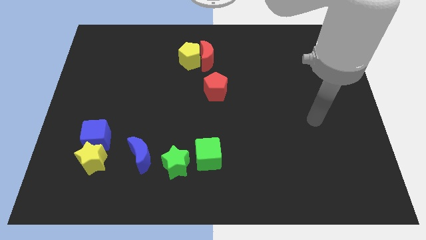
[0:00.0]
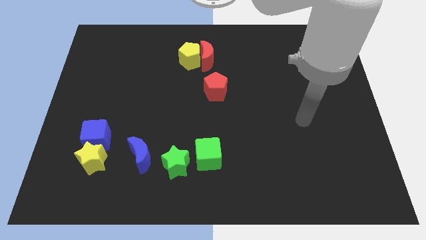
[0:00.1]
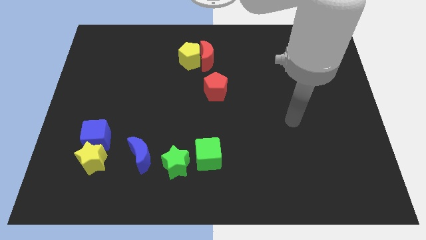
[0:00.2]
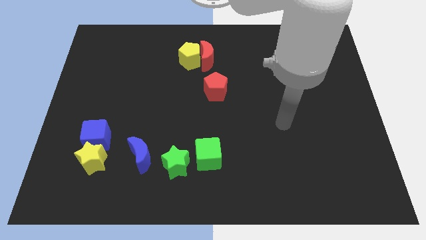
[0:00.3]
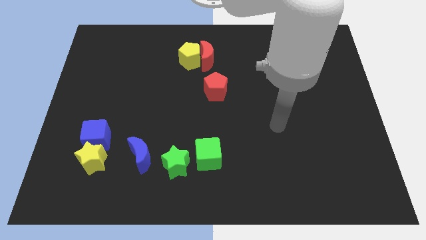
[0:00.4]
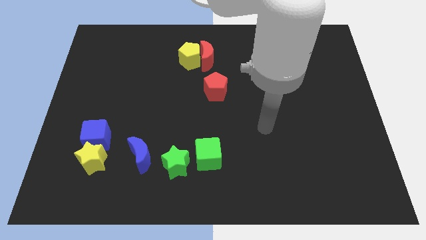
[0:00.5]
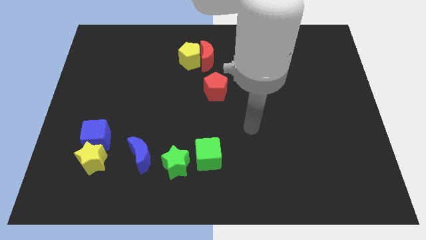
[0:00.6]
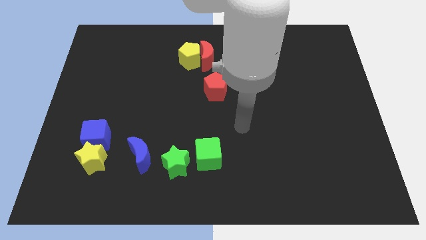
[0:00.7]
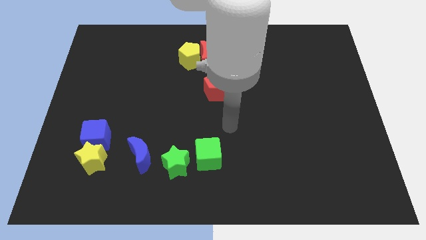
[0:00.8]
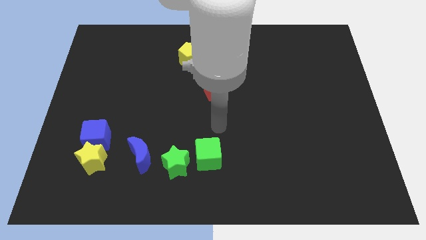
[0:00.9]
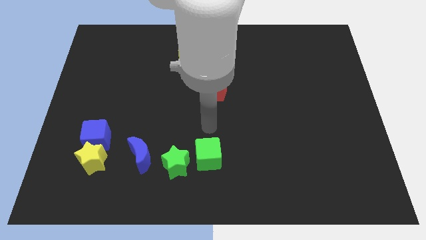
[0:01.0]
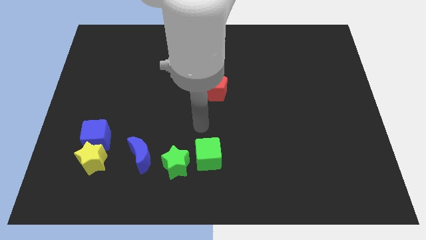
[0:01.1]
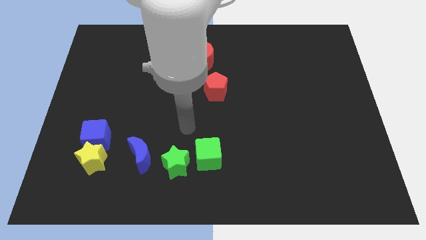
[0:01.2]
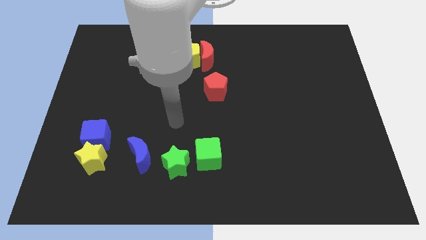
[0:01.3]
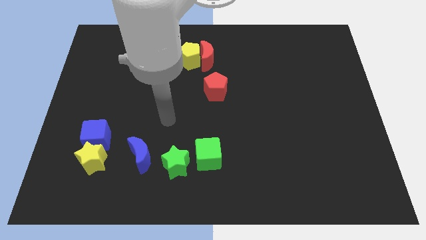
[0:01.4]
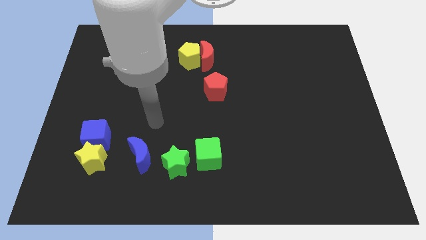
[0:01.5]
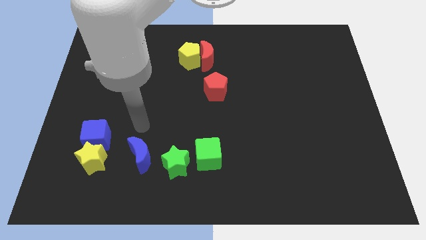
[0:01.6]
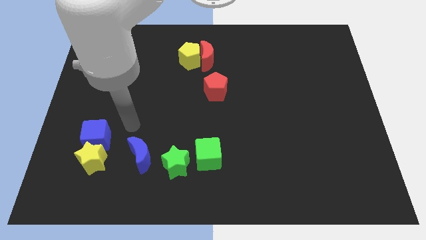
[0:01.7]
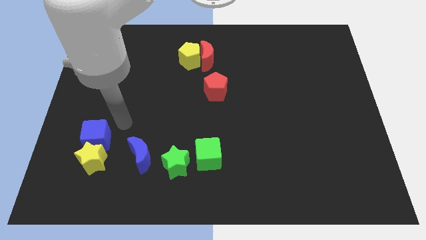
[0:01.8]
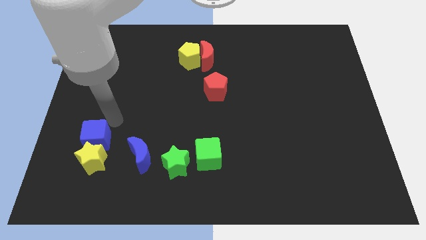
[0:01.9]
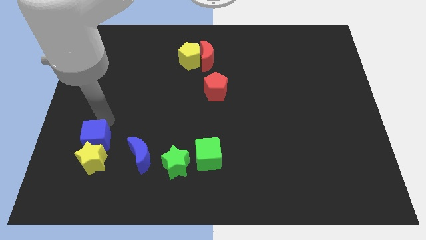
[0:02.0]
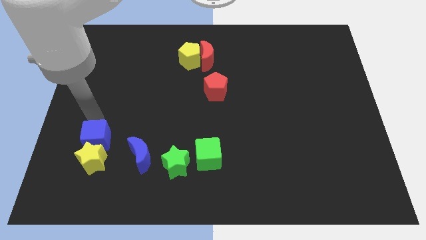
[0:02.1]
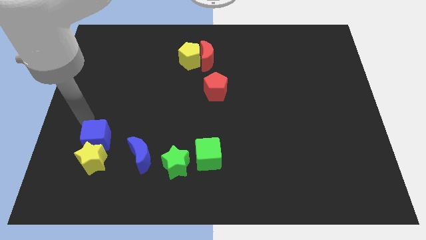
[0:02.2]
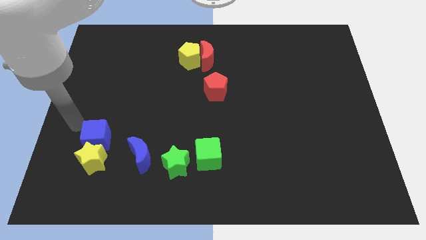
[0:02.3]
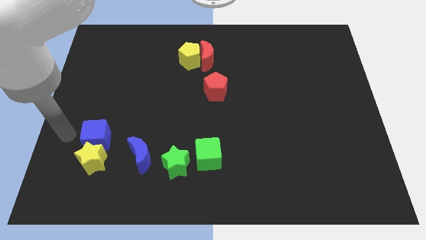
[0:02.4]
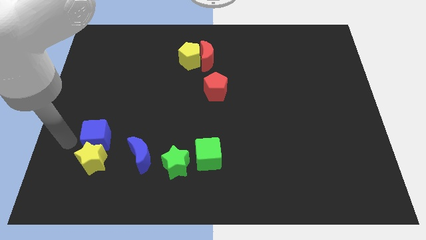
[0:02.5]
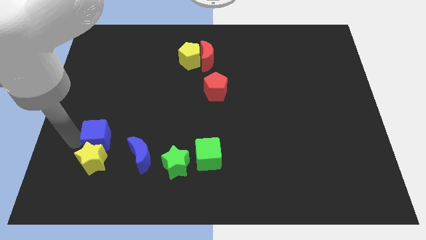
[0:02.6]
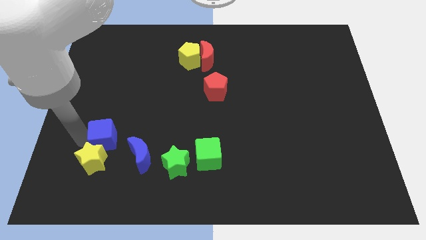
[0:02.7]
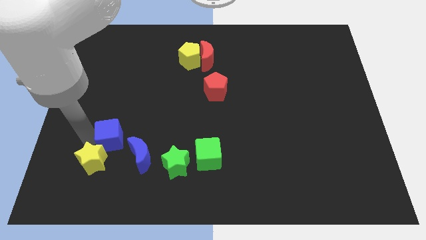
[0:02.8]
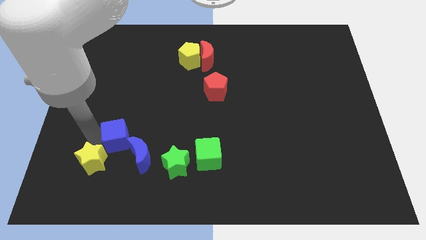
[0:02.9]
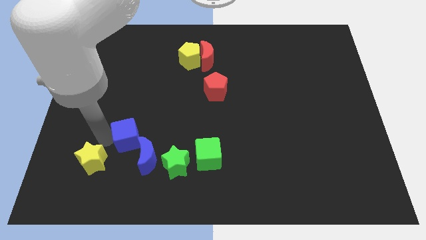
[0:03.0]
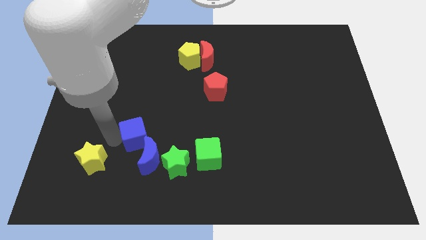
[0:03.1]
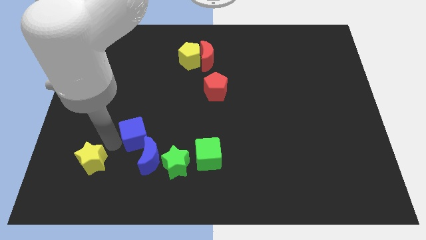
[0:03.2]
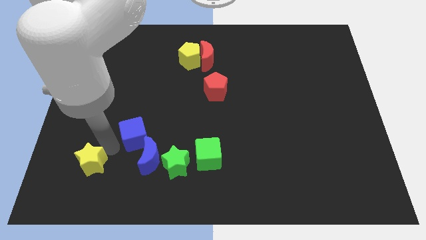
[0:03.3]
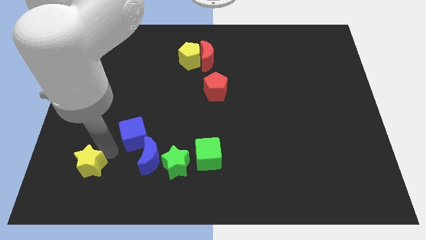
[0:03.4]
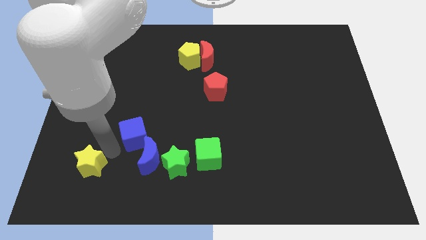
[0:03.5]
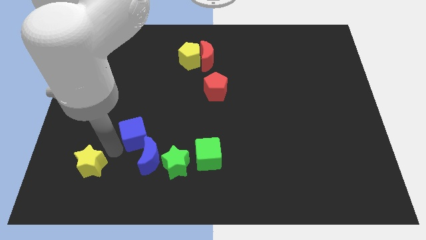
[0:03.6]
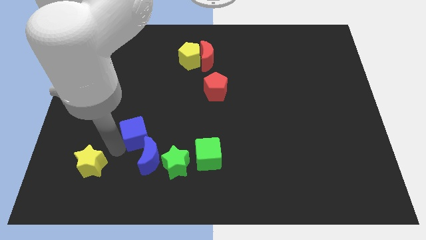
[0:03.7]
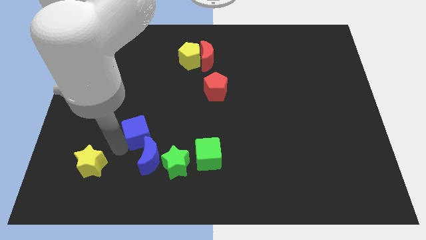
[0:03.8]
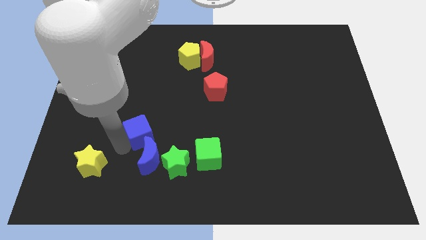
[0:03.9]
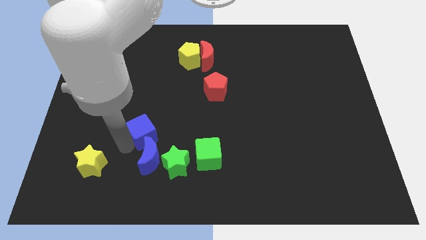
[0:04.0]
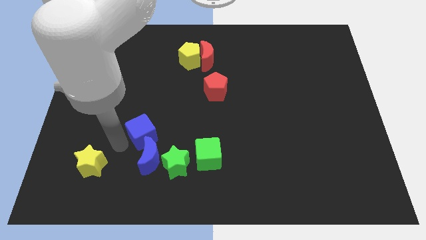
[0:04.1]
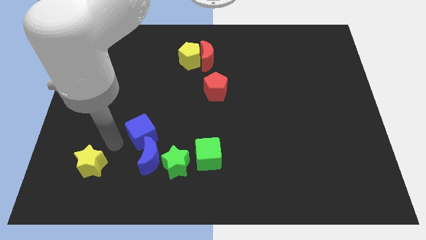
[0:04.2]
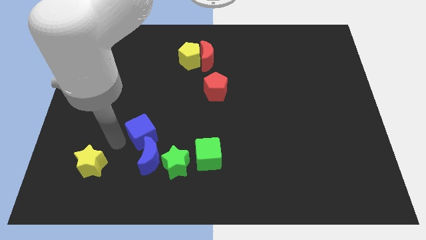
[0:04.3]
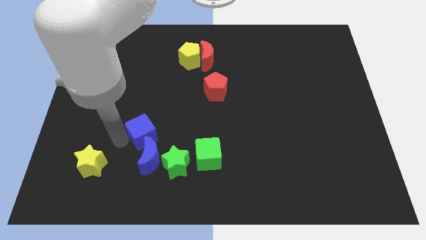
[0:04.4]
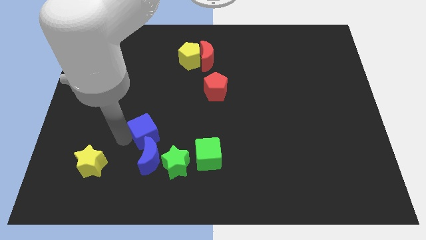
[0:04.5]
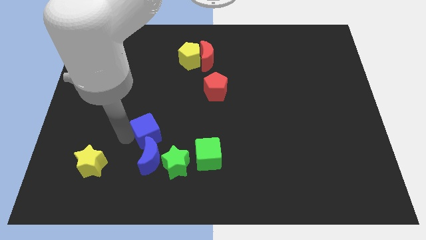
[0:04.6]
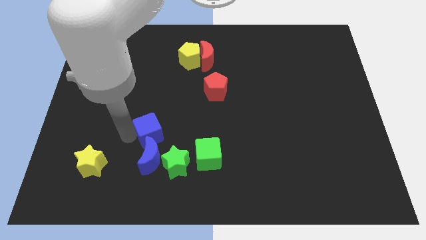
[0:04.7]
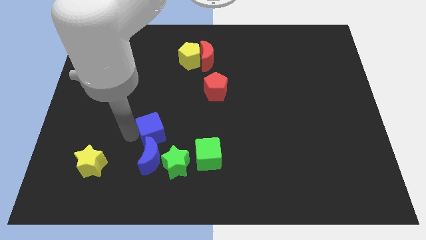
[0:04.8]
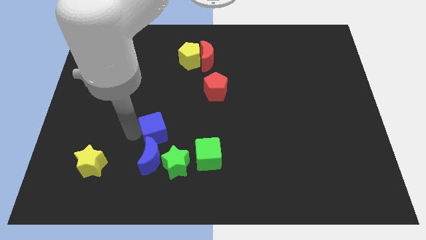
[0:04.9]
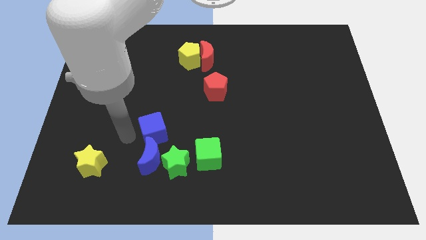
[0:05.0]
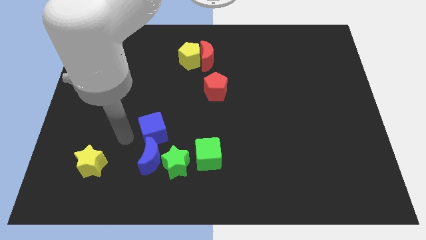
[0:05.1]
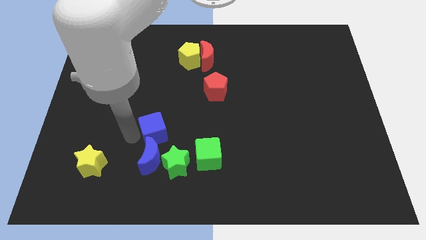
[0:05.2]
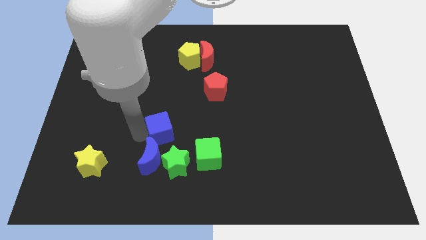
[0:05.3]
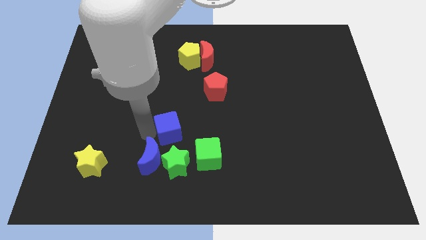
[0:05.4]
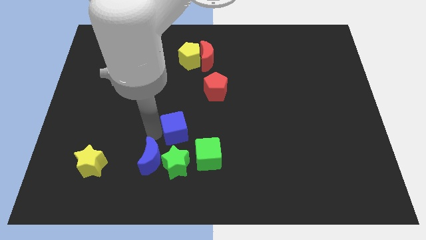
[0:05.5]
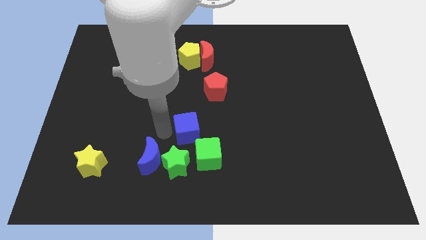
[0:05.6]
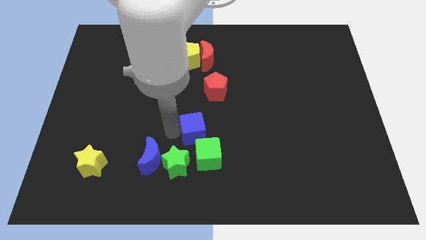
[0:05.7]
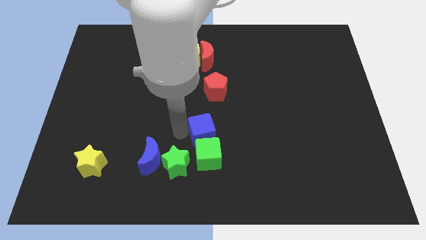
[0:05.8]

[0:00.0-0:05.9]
push the blue cube below the red pentagon

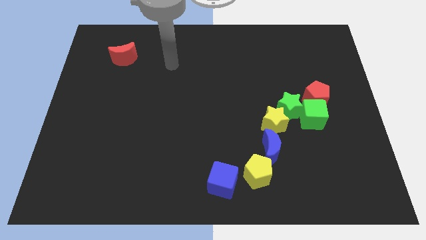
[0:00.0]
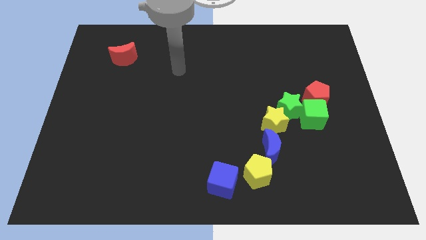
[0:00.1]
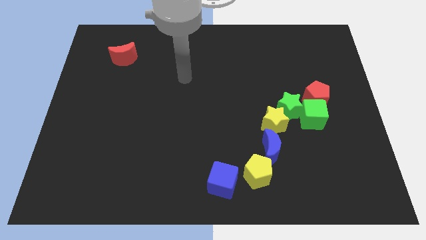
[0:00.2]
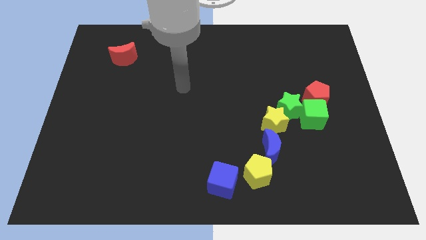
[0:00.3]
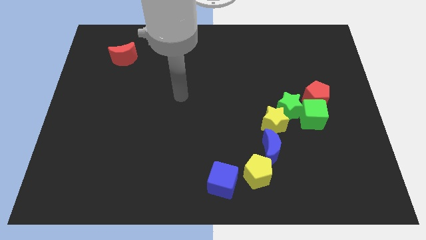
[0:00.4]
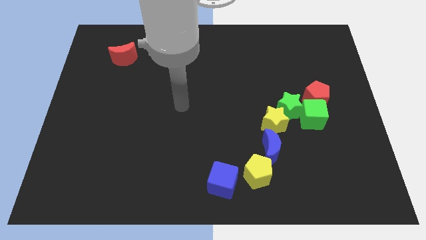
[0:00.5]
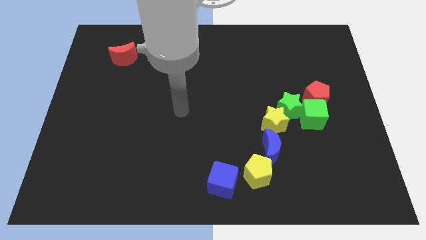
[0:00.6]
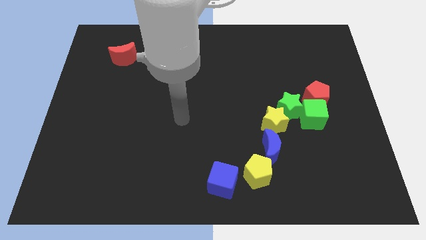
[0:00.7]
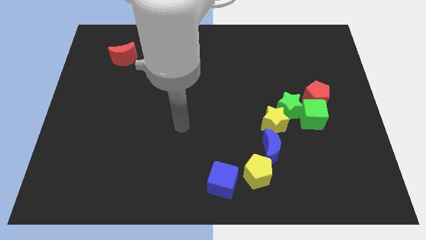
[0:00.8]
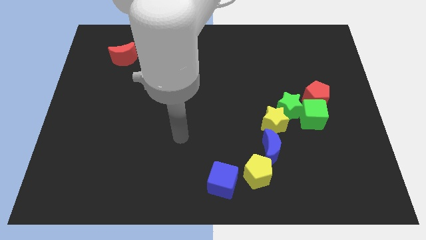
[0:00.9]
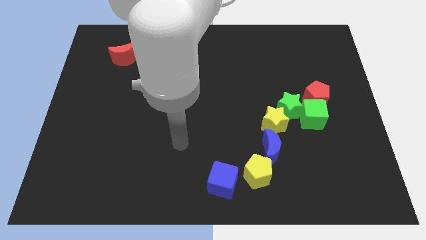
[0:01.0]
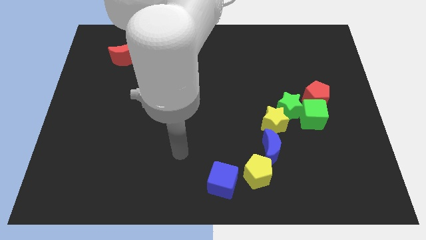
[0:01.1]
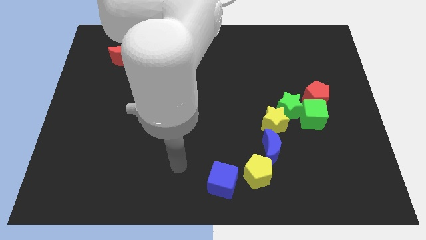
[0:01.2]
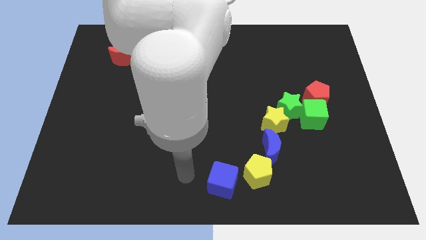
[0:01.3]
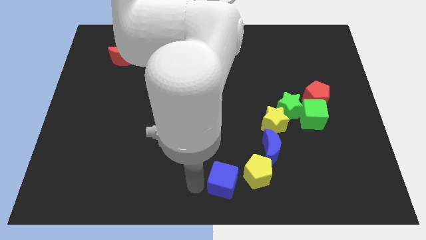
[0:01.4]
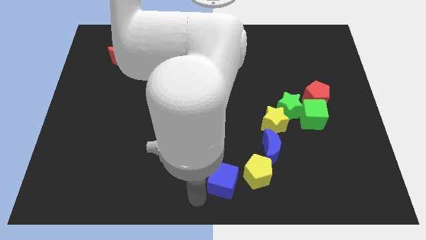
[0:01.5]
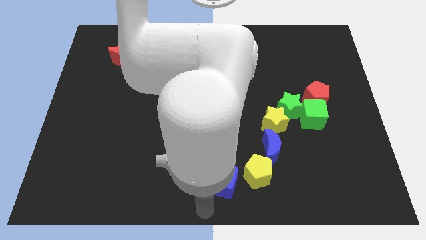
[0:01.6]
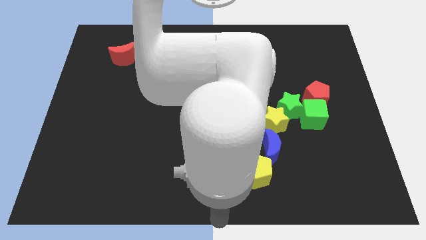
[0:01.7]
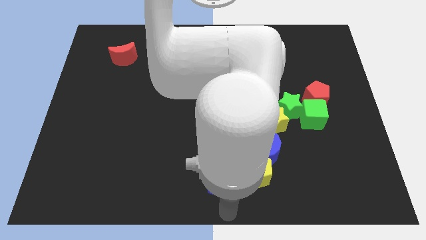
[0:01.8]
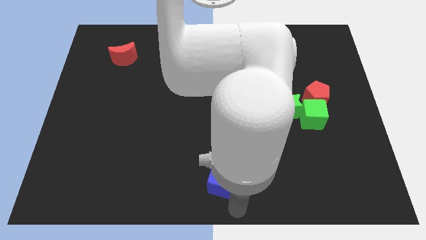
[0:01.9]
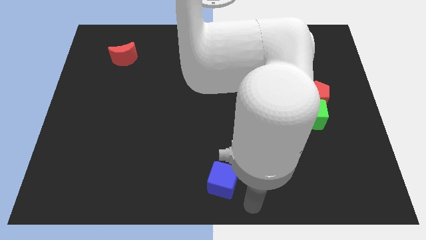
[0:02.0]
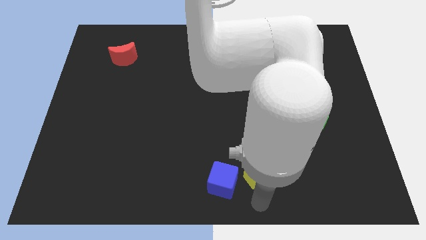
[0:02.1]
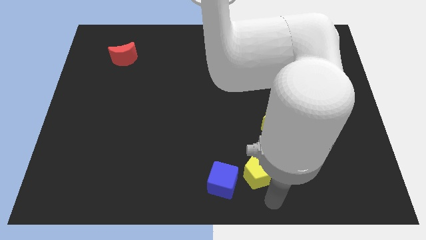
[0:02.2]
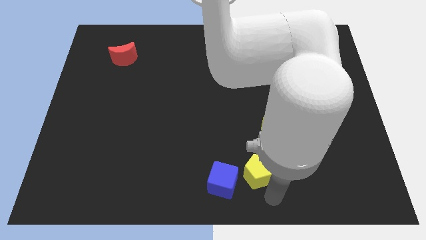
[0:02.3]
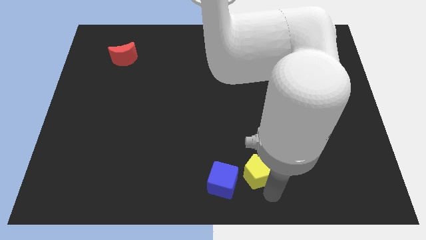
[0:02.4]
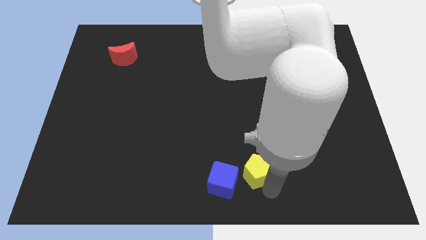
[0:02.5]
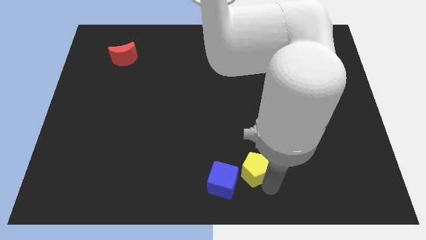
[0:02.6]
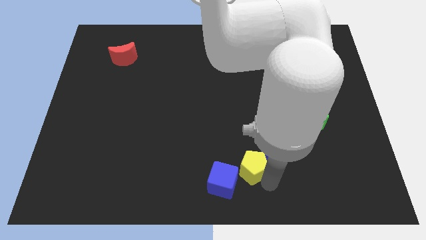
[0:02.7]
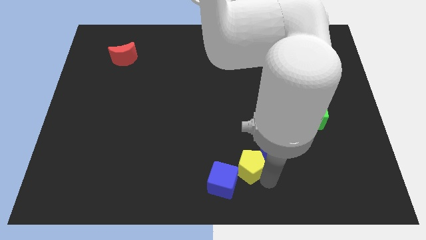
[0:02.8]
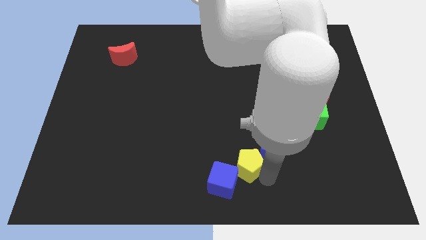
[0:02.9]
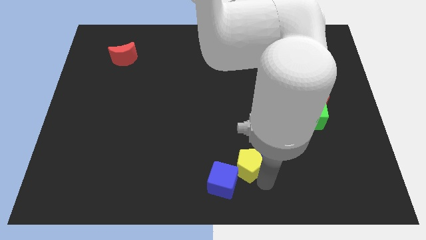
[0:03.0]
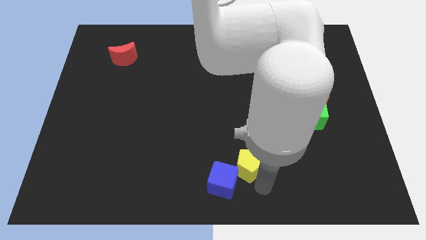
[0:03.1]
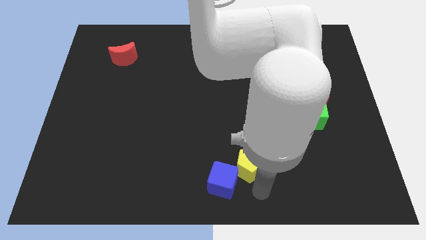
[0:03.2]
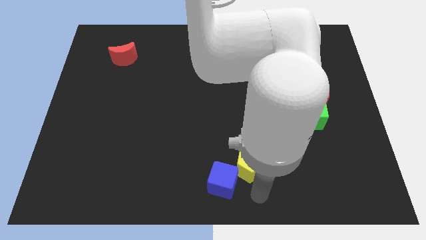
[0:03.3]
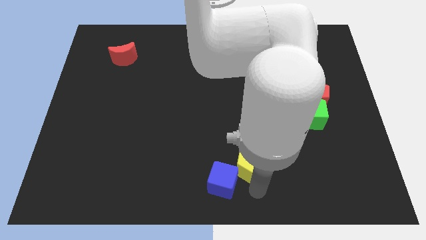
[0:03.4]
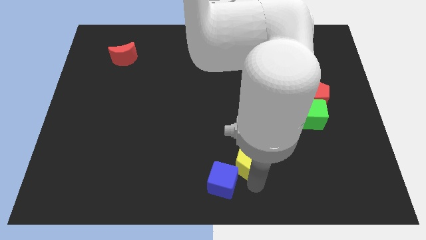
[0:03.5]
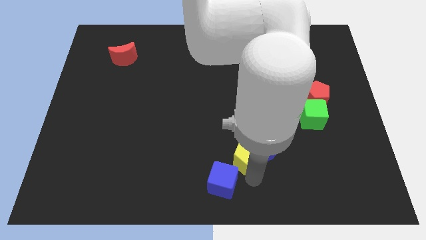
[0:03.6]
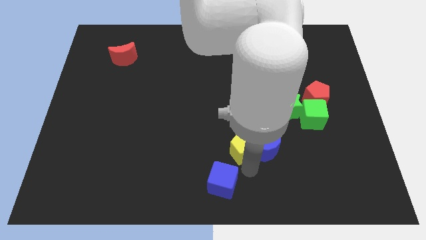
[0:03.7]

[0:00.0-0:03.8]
move the yellow pentagon to the top left side of the blue moon
